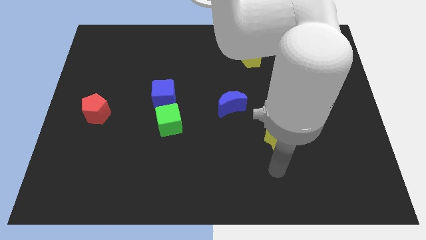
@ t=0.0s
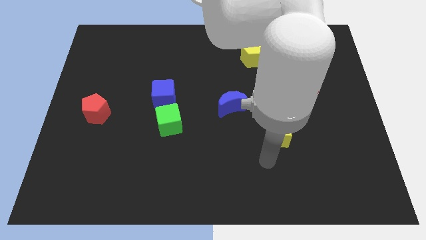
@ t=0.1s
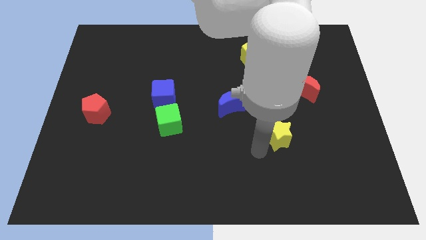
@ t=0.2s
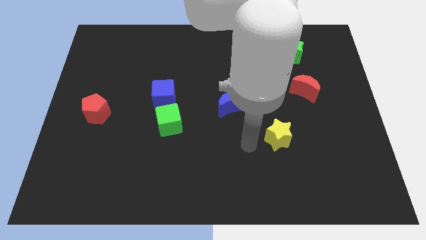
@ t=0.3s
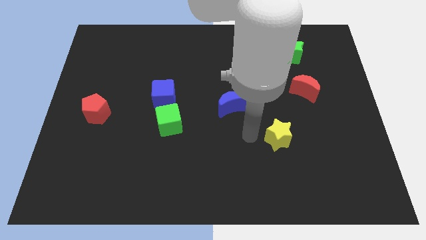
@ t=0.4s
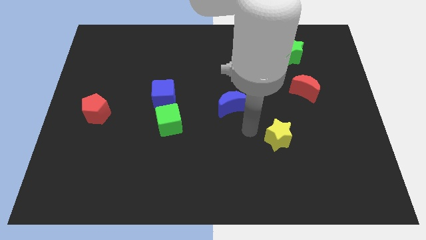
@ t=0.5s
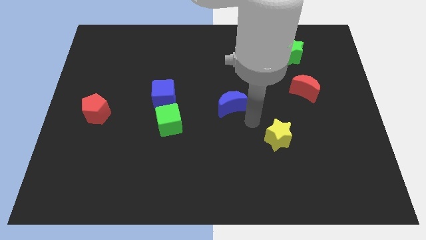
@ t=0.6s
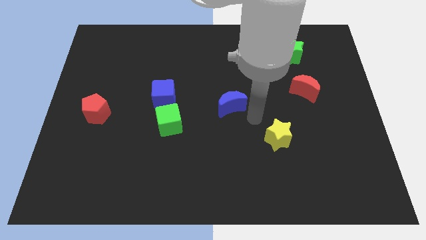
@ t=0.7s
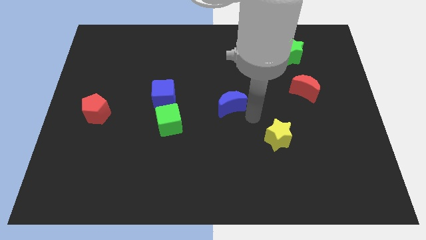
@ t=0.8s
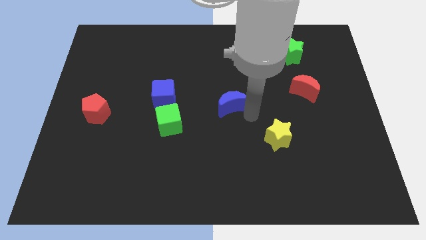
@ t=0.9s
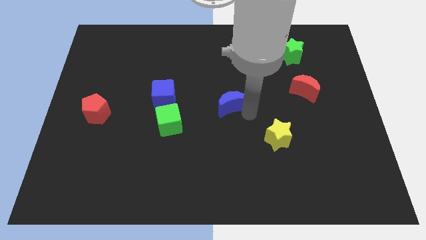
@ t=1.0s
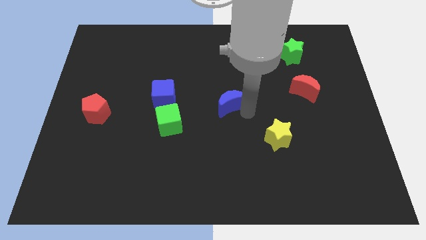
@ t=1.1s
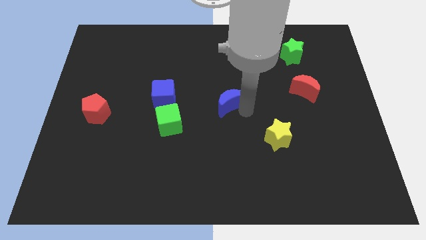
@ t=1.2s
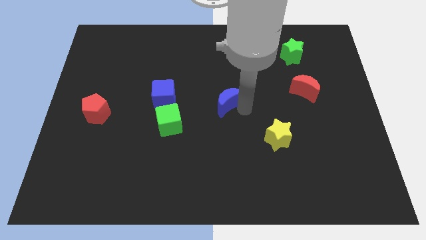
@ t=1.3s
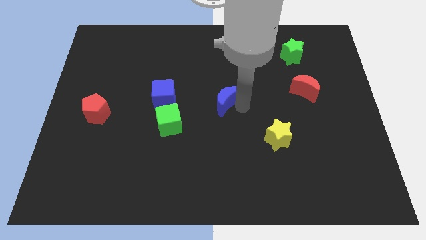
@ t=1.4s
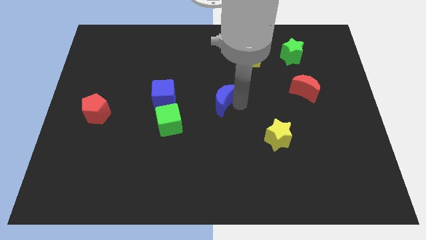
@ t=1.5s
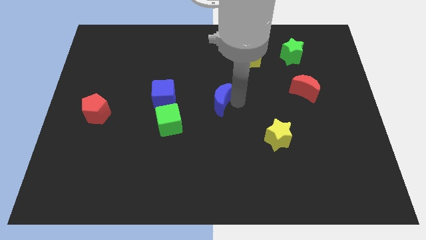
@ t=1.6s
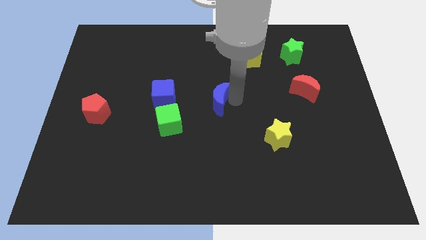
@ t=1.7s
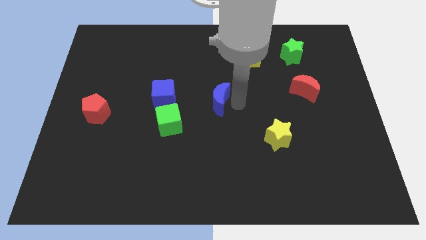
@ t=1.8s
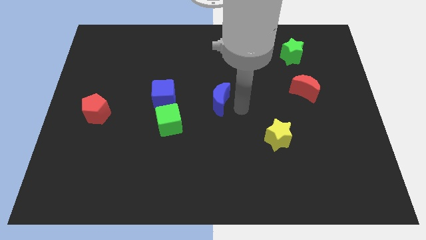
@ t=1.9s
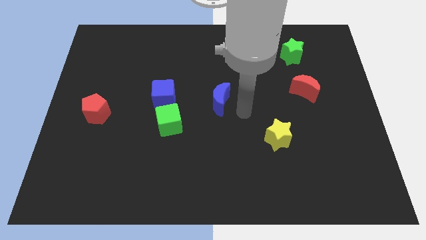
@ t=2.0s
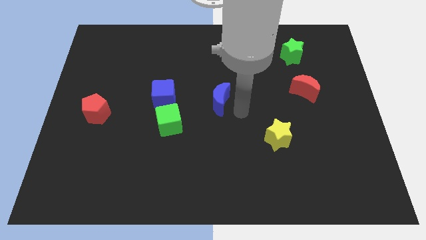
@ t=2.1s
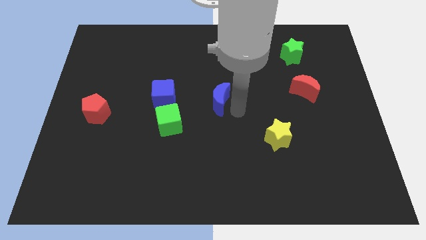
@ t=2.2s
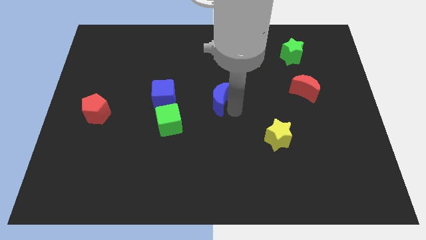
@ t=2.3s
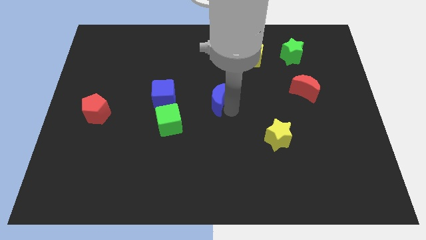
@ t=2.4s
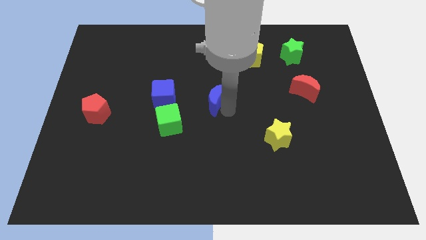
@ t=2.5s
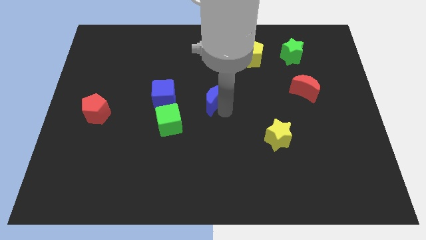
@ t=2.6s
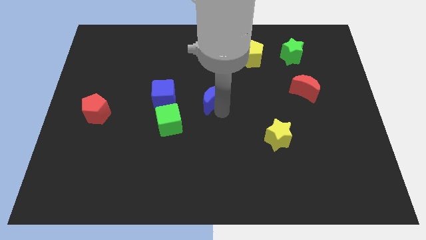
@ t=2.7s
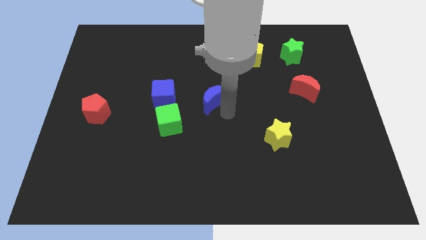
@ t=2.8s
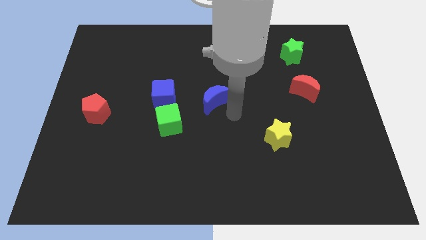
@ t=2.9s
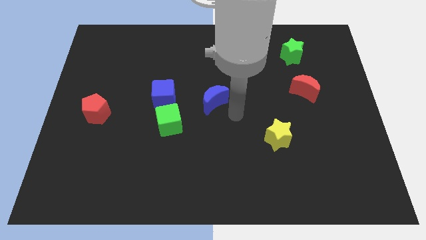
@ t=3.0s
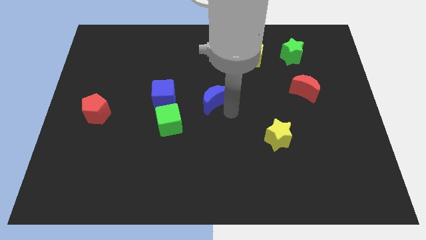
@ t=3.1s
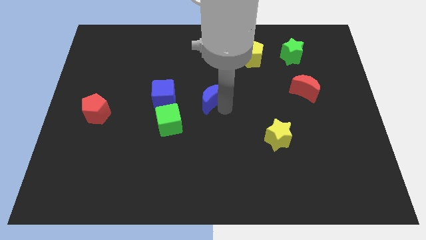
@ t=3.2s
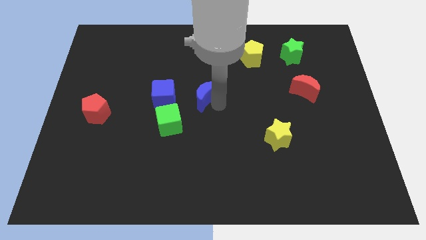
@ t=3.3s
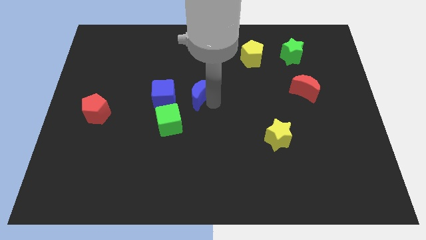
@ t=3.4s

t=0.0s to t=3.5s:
move the blue moon a bit left

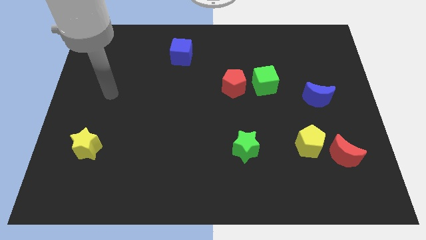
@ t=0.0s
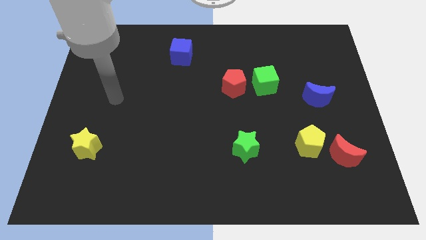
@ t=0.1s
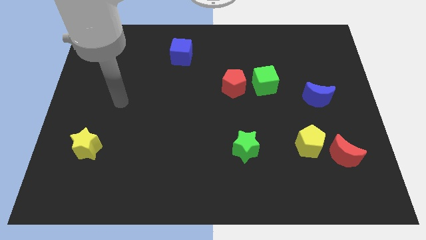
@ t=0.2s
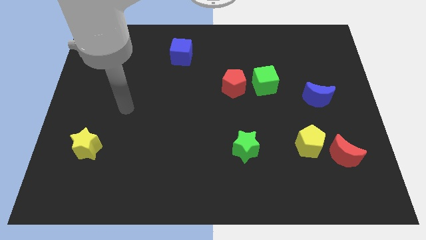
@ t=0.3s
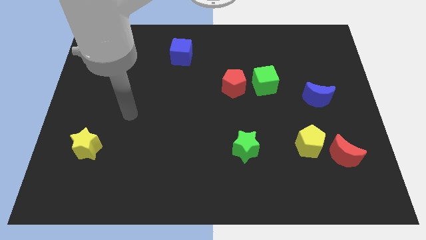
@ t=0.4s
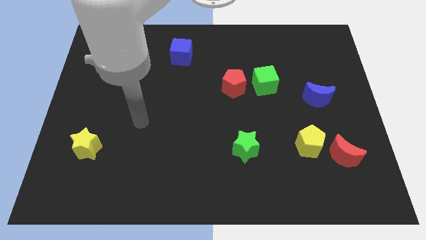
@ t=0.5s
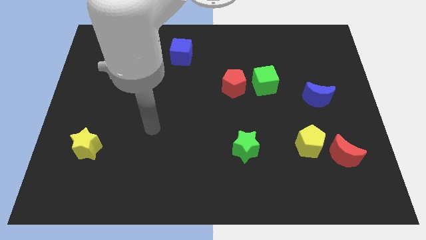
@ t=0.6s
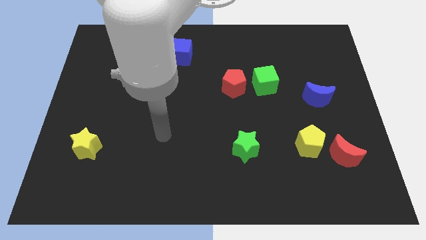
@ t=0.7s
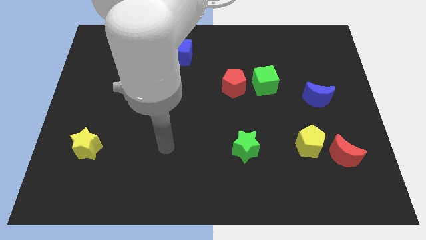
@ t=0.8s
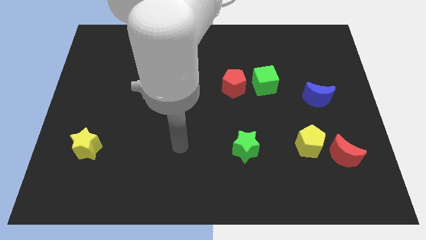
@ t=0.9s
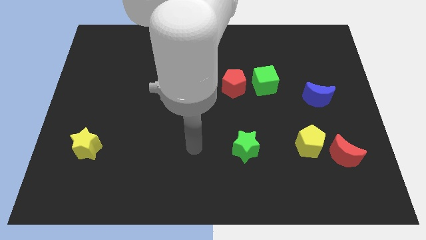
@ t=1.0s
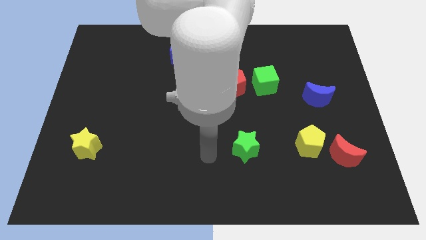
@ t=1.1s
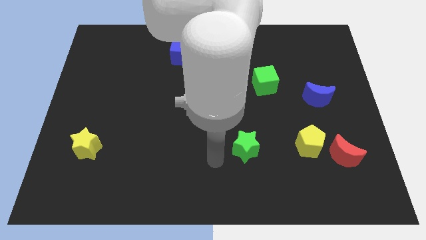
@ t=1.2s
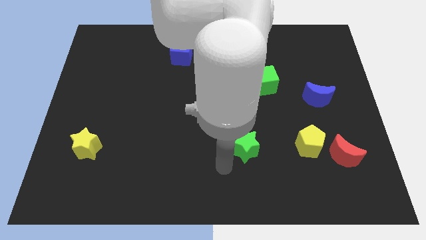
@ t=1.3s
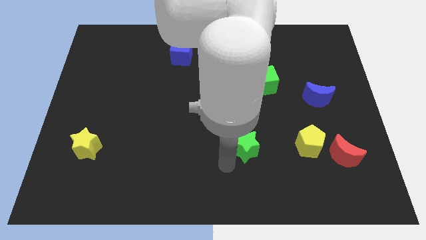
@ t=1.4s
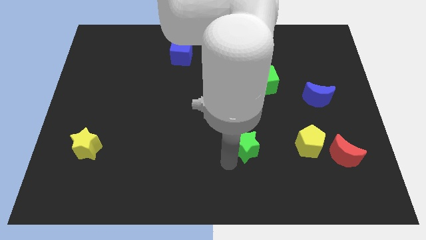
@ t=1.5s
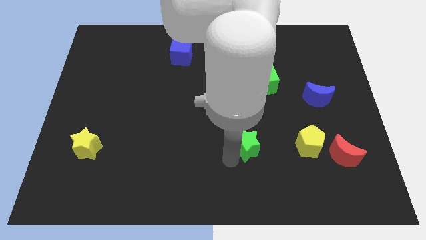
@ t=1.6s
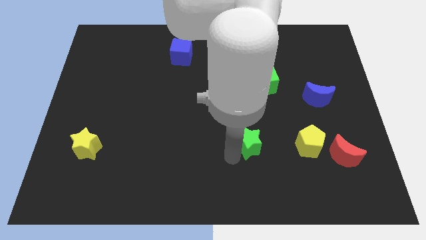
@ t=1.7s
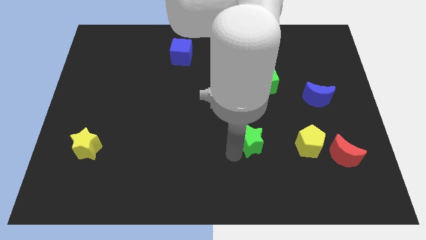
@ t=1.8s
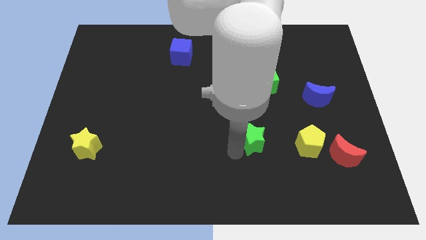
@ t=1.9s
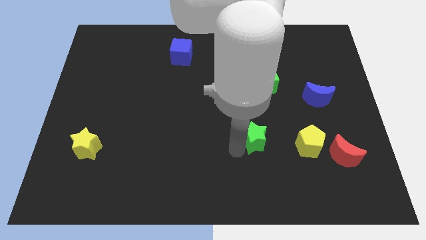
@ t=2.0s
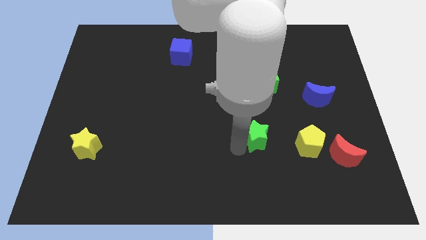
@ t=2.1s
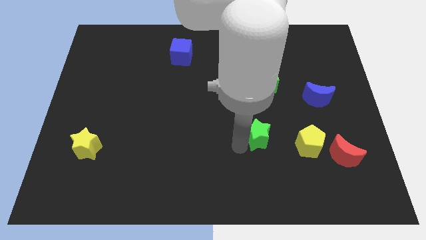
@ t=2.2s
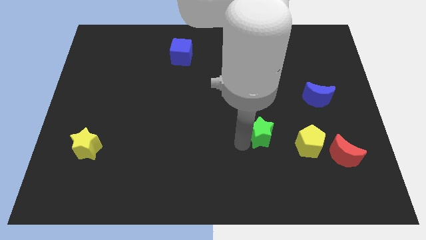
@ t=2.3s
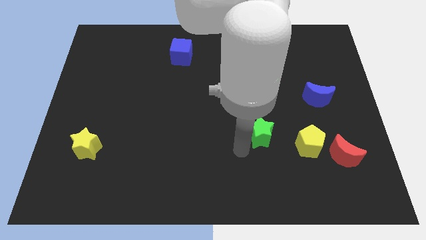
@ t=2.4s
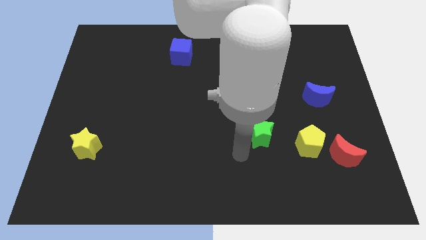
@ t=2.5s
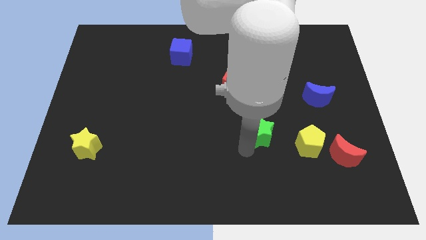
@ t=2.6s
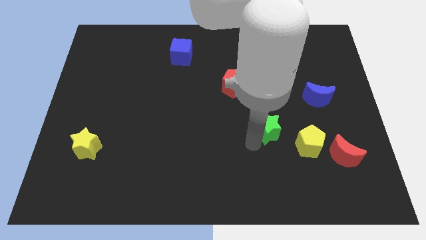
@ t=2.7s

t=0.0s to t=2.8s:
slightly move the green star upwards and right

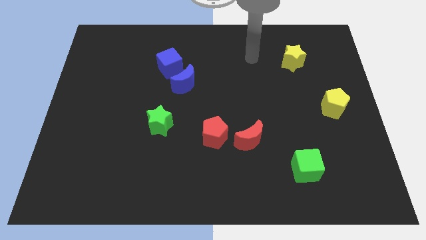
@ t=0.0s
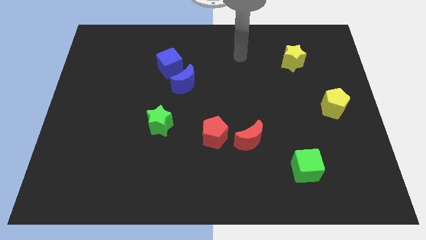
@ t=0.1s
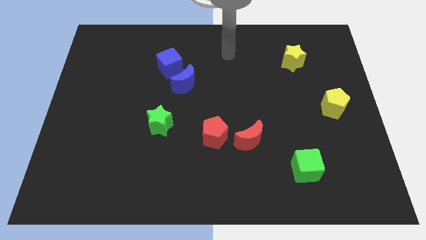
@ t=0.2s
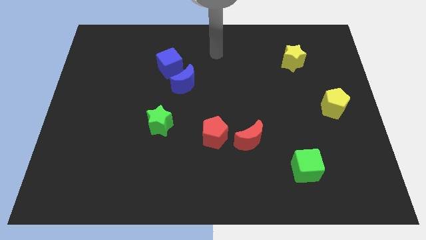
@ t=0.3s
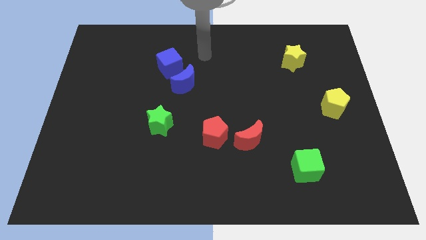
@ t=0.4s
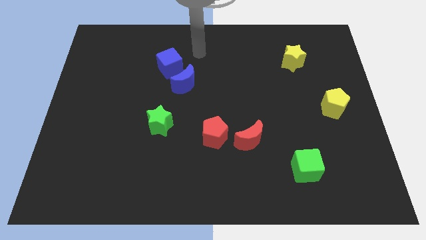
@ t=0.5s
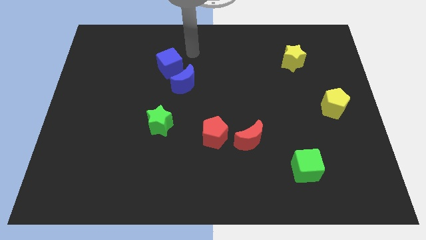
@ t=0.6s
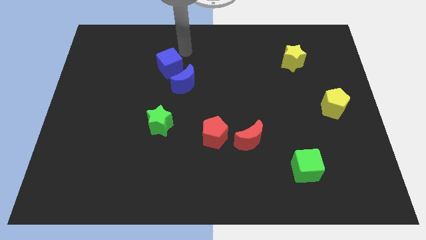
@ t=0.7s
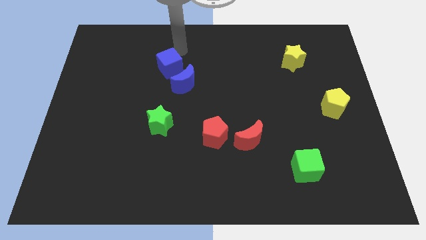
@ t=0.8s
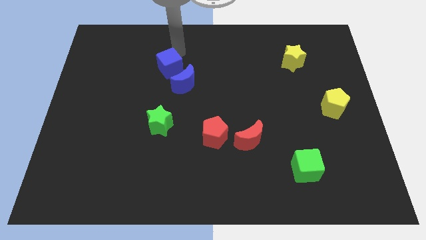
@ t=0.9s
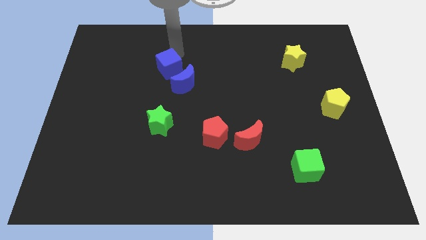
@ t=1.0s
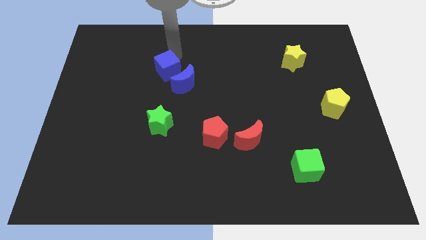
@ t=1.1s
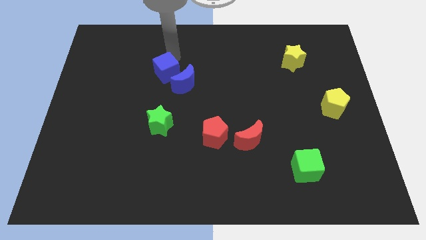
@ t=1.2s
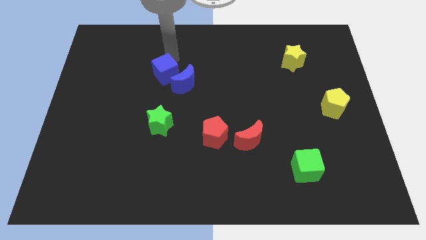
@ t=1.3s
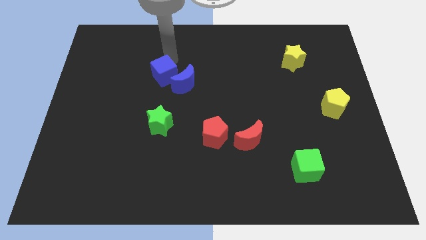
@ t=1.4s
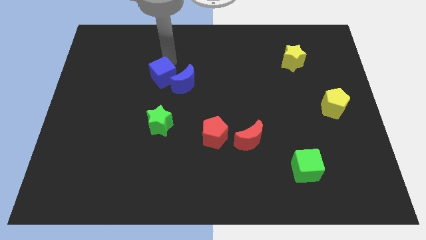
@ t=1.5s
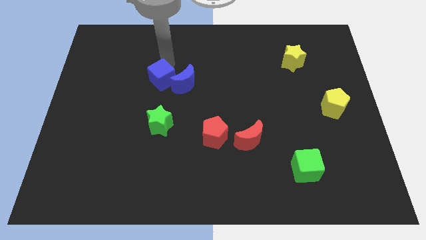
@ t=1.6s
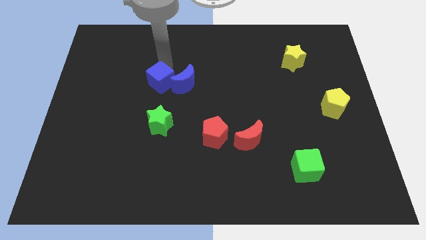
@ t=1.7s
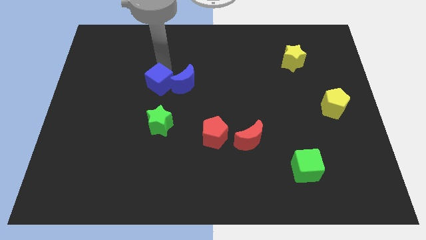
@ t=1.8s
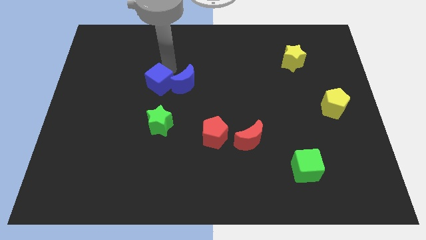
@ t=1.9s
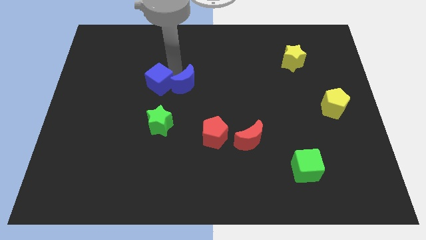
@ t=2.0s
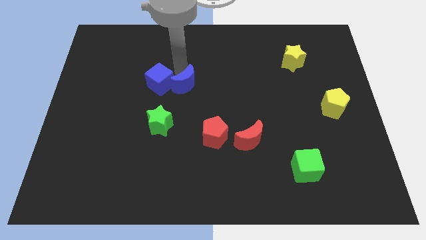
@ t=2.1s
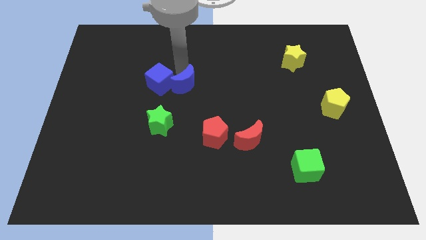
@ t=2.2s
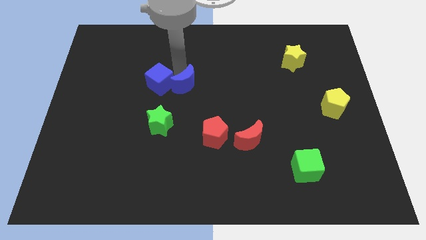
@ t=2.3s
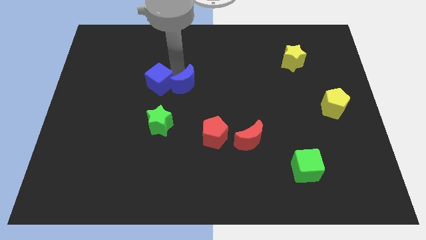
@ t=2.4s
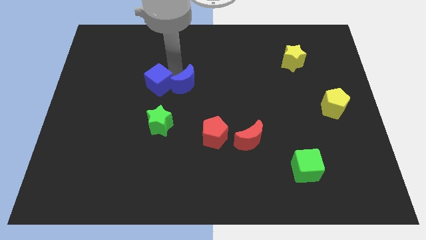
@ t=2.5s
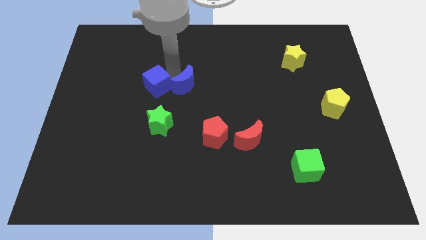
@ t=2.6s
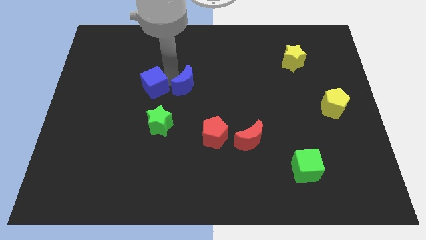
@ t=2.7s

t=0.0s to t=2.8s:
slide the blue cube down and then to the left a little
